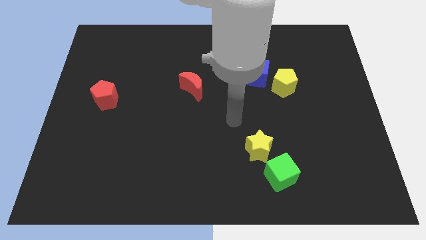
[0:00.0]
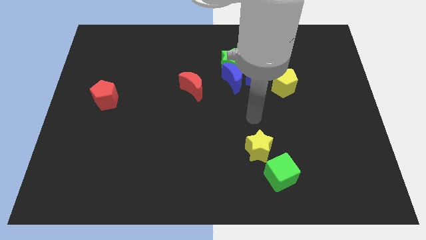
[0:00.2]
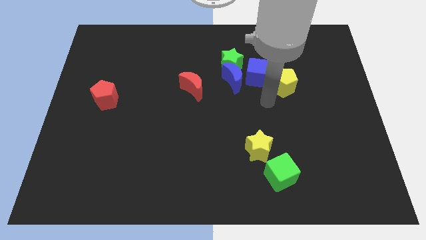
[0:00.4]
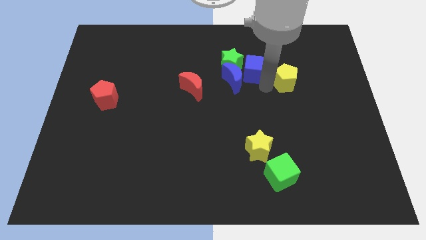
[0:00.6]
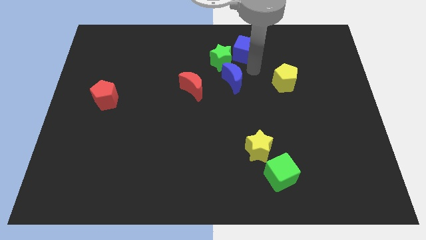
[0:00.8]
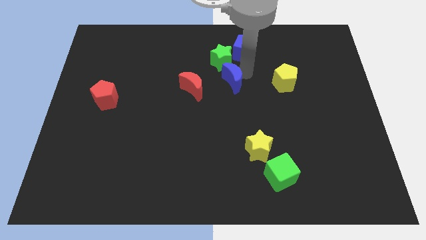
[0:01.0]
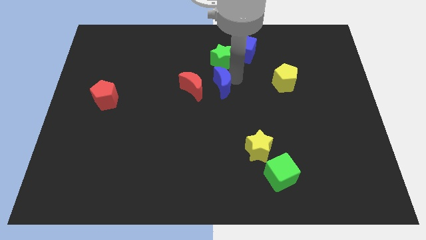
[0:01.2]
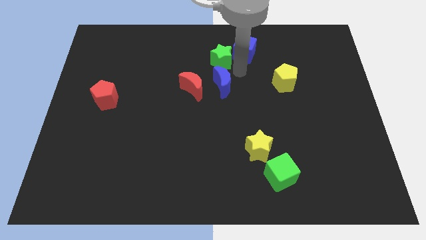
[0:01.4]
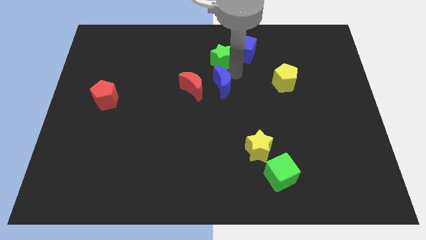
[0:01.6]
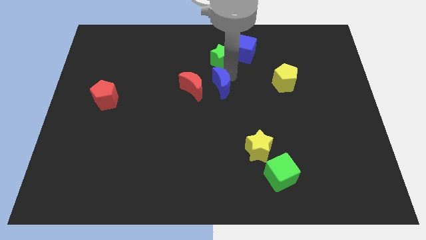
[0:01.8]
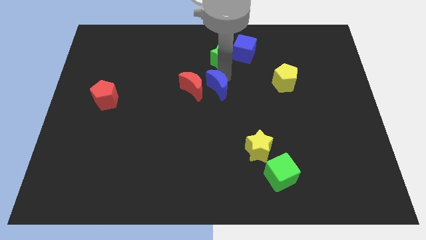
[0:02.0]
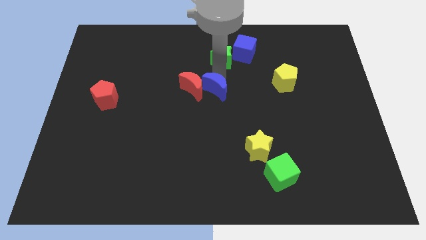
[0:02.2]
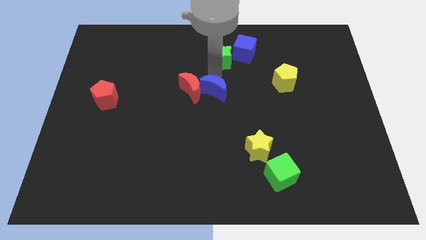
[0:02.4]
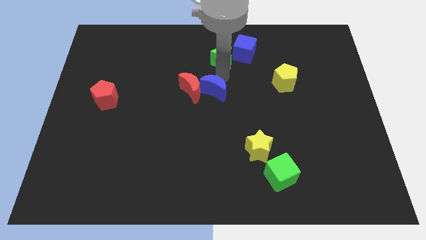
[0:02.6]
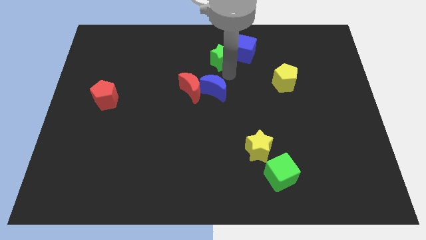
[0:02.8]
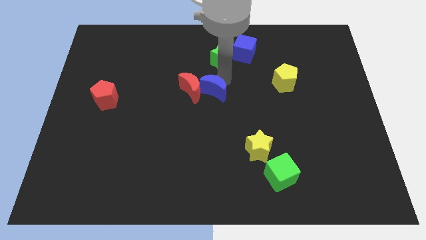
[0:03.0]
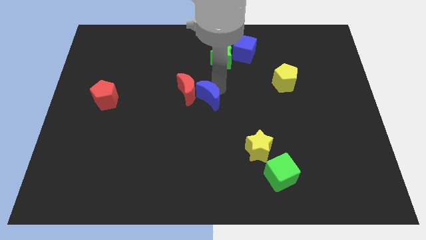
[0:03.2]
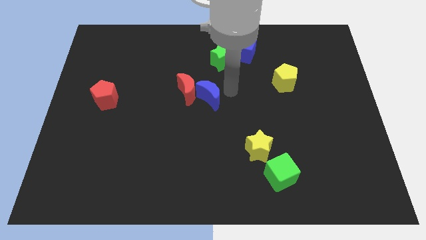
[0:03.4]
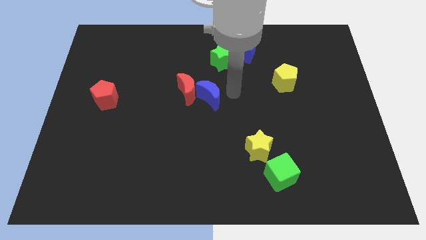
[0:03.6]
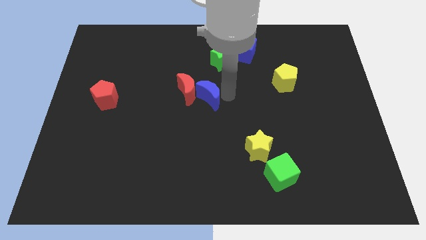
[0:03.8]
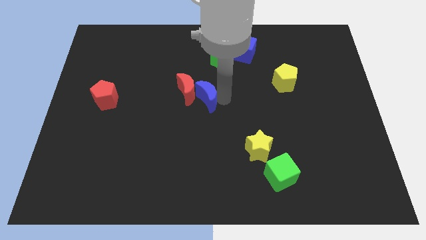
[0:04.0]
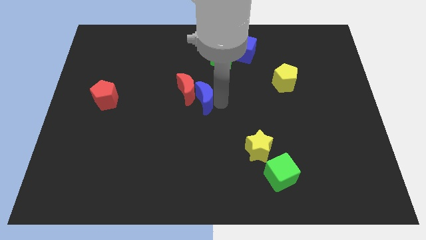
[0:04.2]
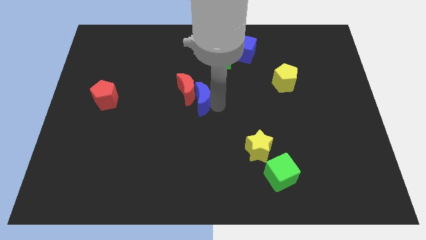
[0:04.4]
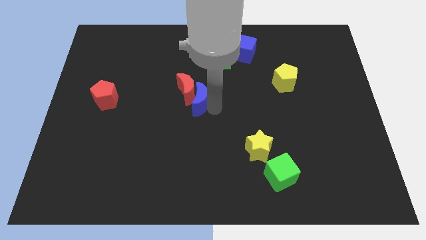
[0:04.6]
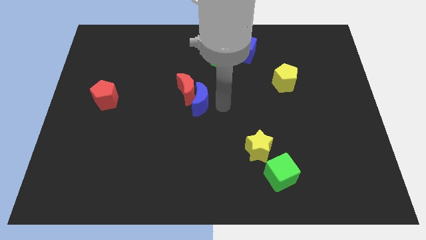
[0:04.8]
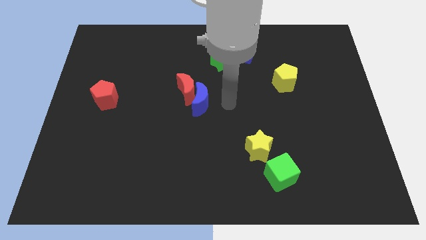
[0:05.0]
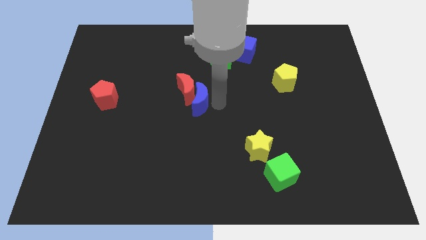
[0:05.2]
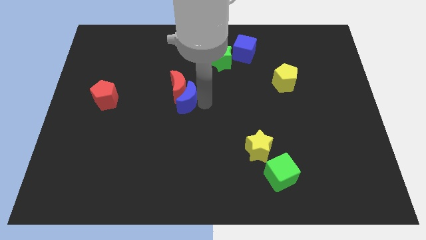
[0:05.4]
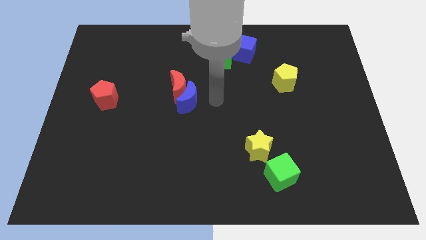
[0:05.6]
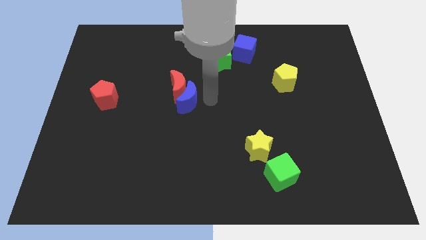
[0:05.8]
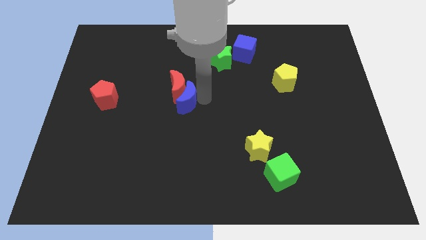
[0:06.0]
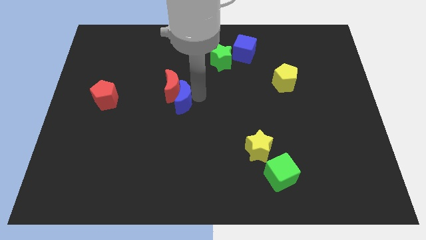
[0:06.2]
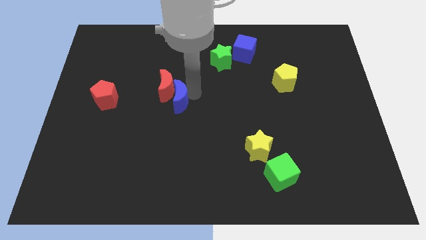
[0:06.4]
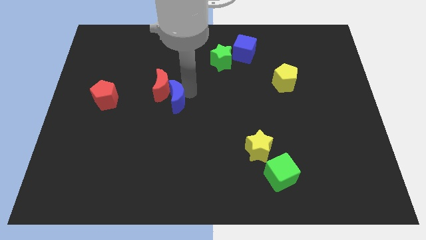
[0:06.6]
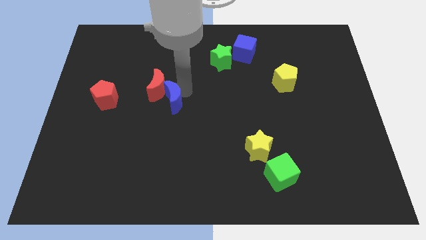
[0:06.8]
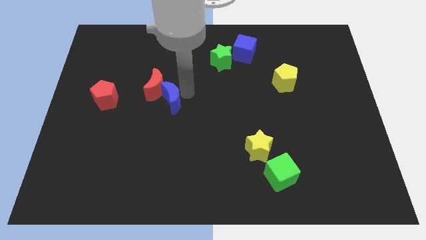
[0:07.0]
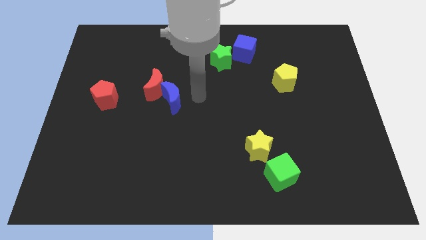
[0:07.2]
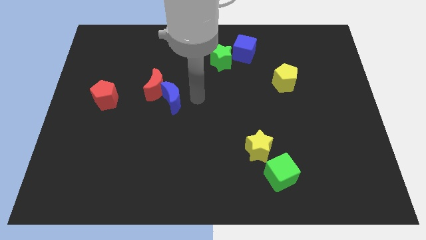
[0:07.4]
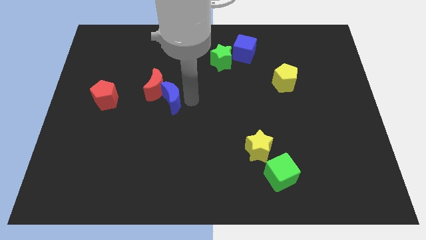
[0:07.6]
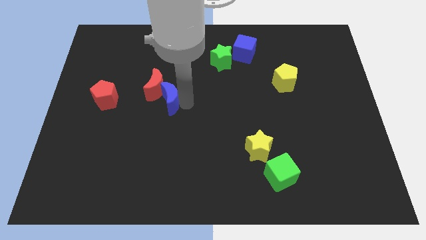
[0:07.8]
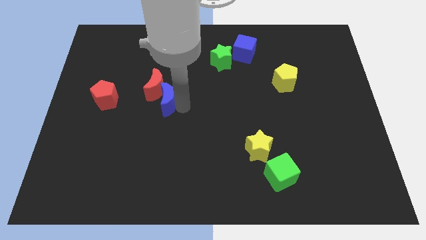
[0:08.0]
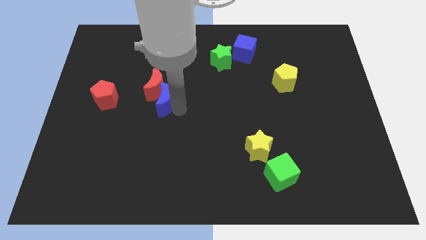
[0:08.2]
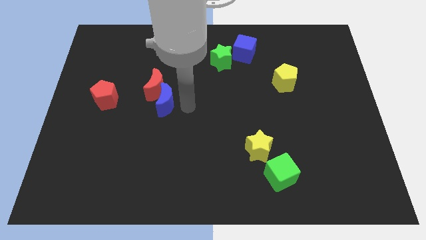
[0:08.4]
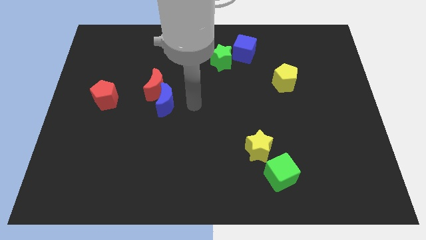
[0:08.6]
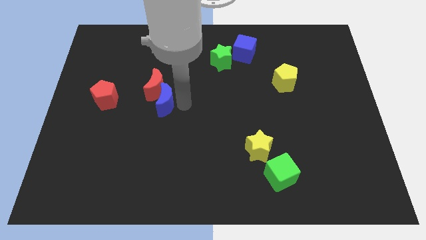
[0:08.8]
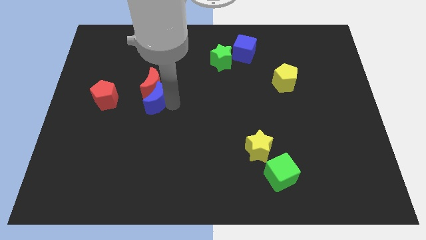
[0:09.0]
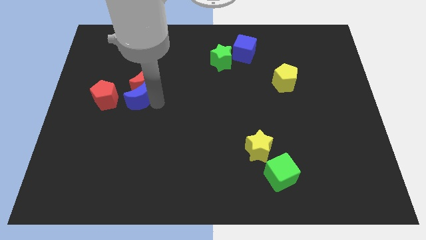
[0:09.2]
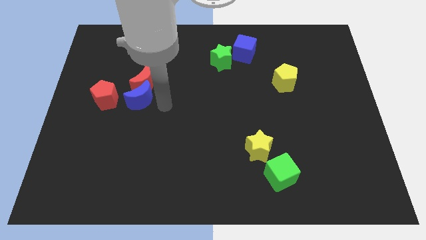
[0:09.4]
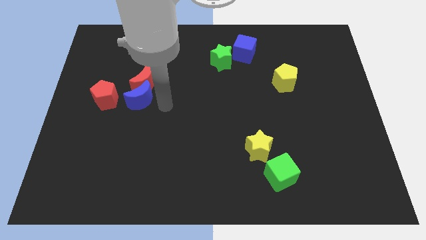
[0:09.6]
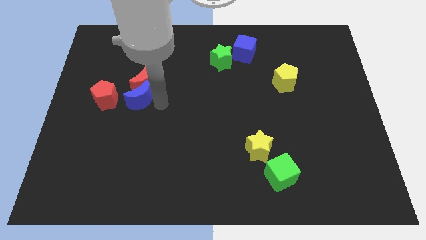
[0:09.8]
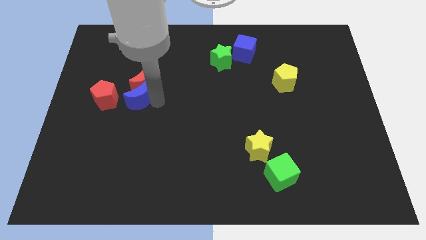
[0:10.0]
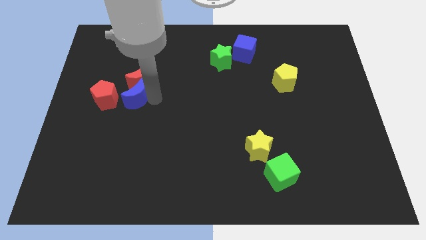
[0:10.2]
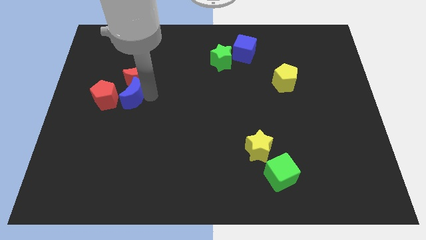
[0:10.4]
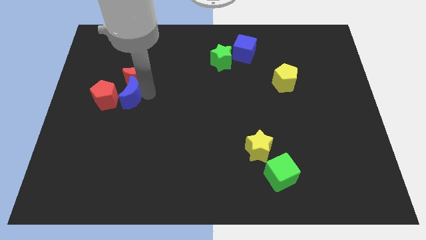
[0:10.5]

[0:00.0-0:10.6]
move the blue moon close to the red pentagon
